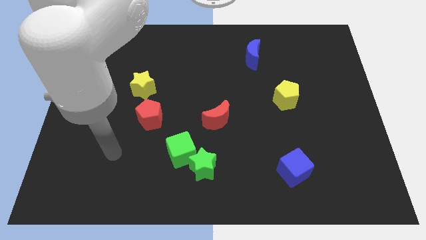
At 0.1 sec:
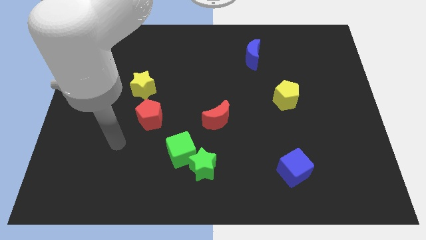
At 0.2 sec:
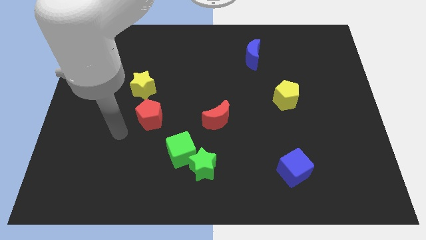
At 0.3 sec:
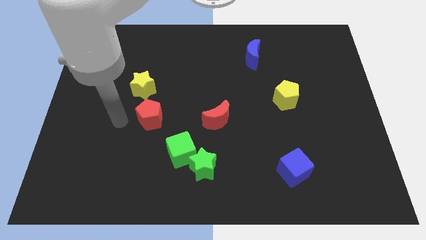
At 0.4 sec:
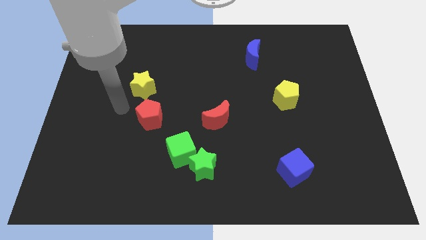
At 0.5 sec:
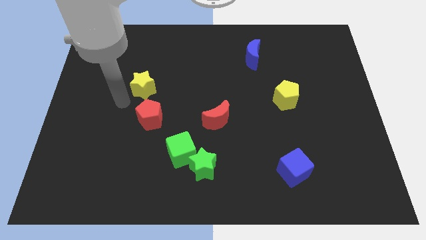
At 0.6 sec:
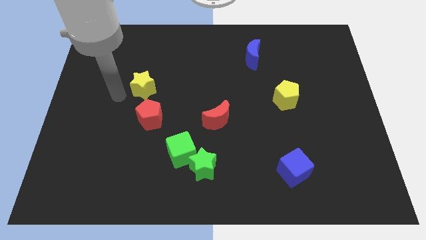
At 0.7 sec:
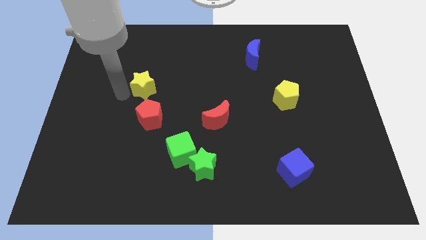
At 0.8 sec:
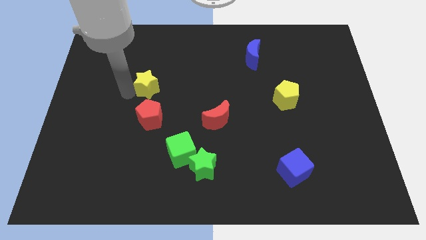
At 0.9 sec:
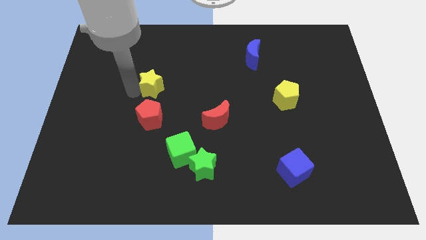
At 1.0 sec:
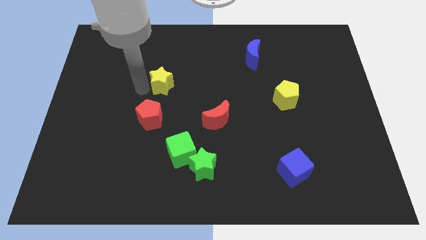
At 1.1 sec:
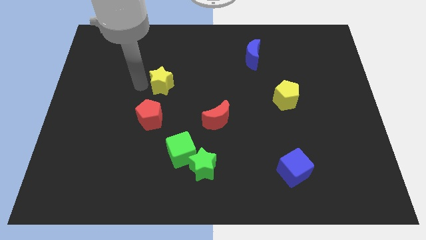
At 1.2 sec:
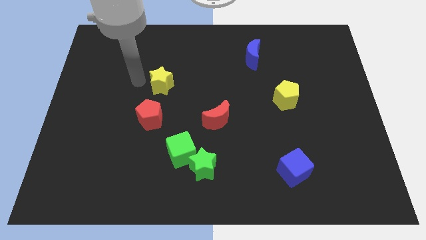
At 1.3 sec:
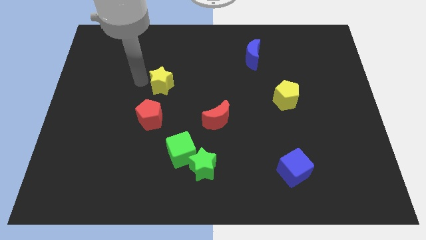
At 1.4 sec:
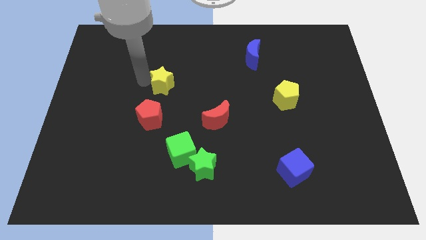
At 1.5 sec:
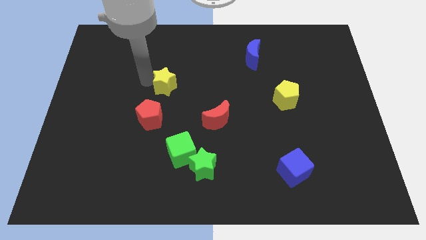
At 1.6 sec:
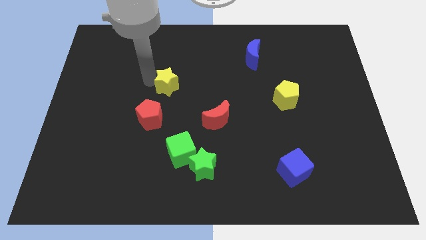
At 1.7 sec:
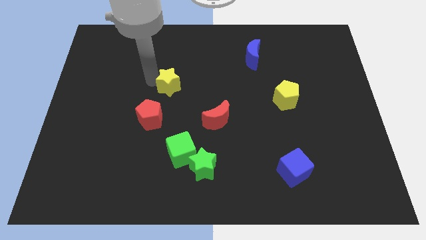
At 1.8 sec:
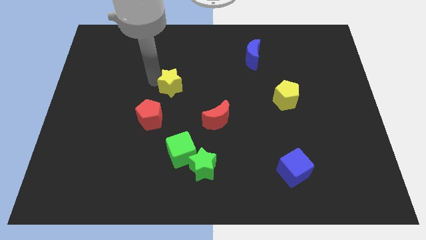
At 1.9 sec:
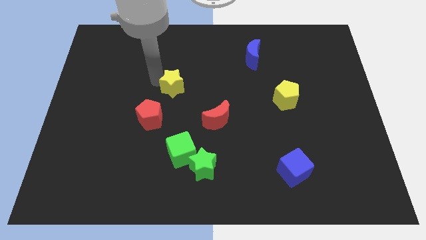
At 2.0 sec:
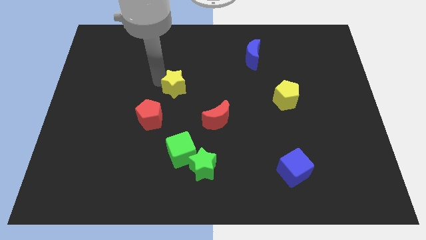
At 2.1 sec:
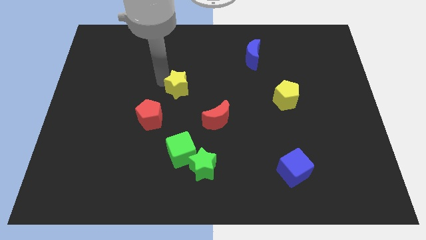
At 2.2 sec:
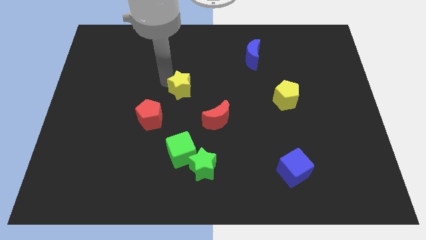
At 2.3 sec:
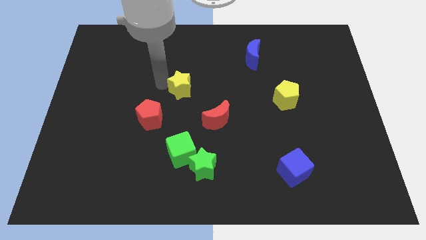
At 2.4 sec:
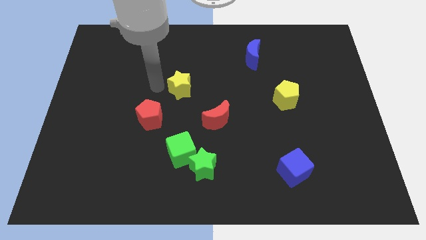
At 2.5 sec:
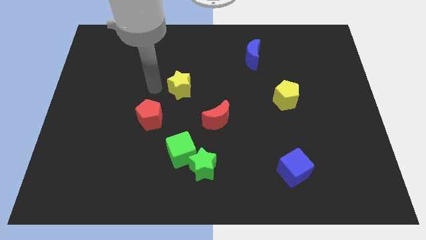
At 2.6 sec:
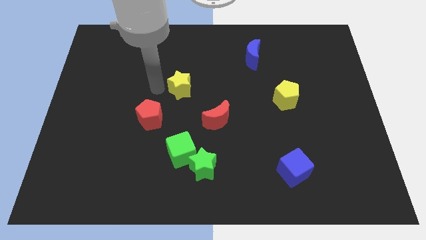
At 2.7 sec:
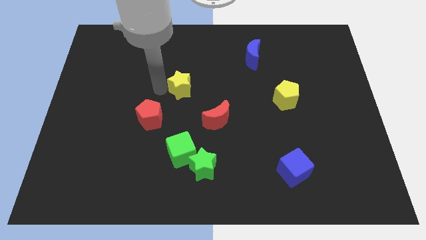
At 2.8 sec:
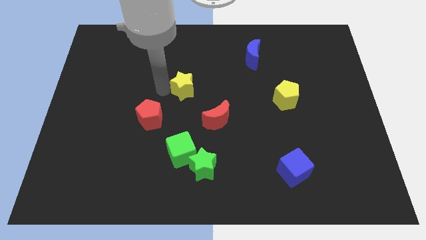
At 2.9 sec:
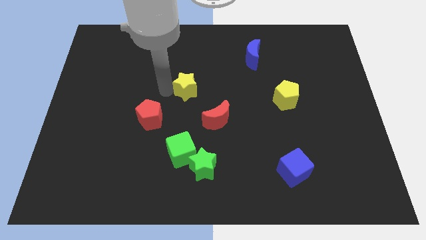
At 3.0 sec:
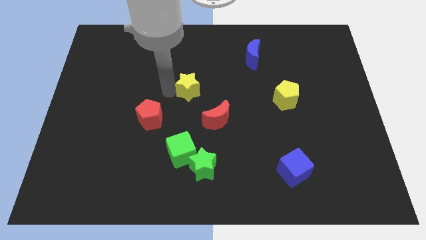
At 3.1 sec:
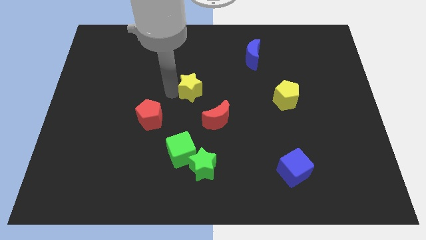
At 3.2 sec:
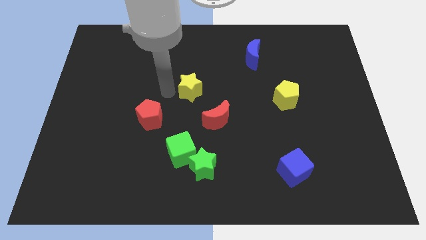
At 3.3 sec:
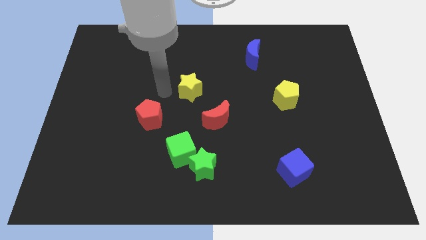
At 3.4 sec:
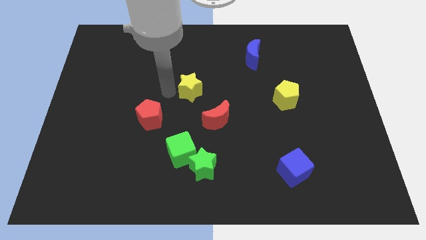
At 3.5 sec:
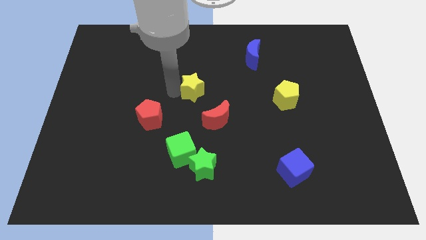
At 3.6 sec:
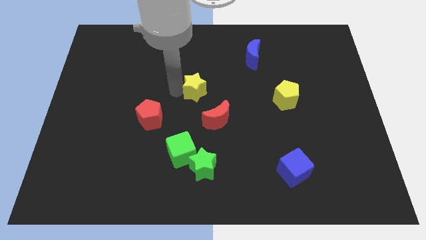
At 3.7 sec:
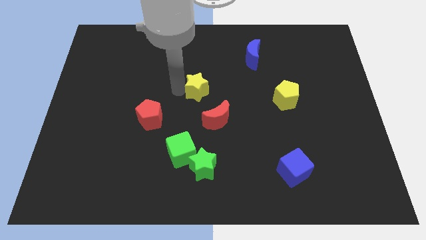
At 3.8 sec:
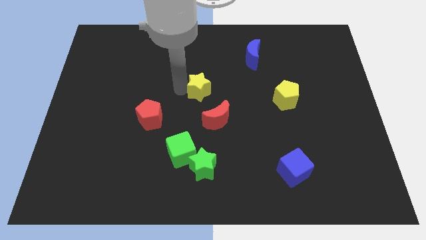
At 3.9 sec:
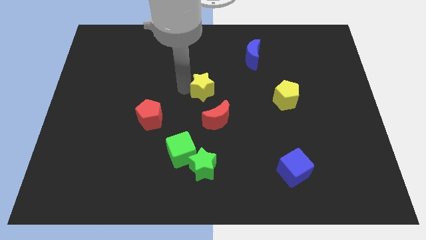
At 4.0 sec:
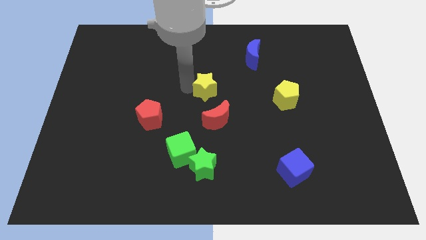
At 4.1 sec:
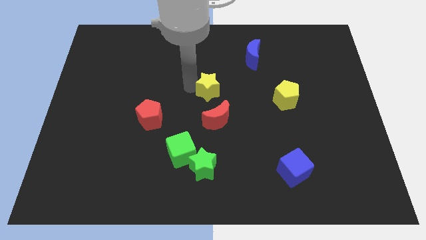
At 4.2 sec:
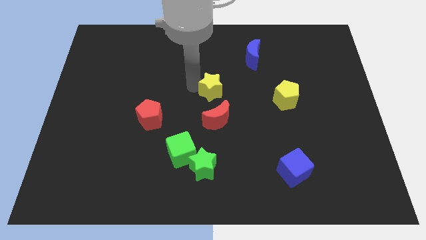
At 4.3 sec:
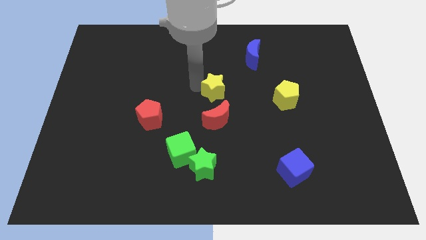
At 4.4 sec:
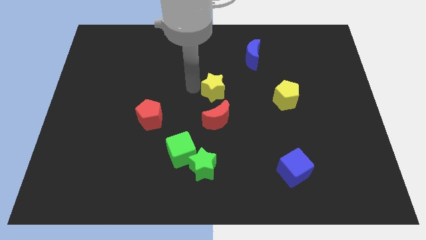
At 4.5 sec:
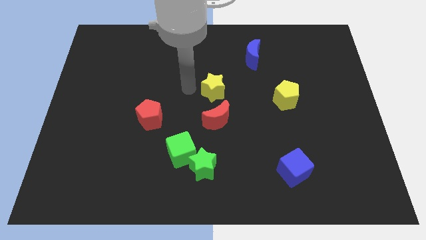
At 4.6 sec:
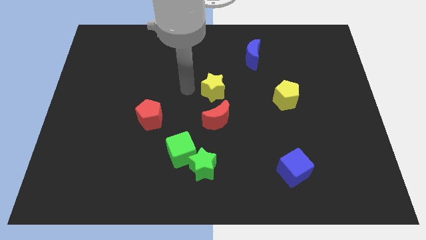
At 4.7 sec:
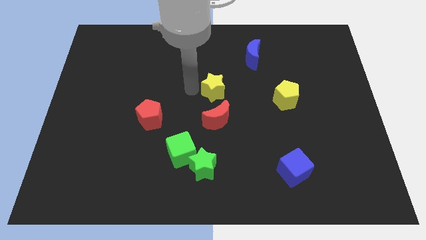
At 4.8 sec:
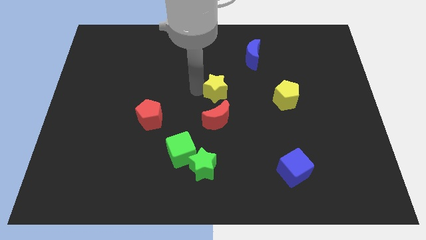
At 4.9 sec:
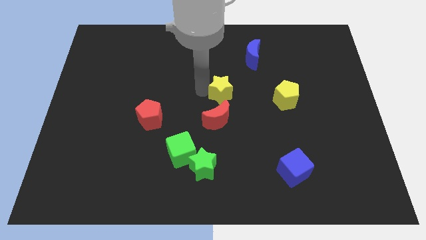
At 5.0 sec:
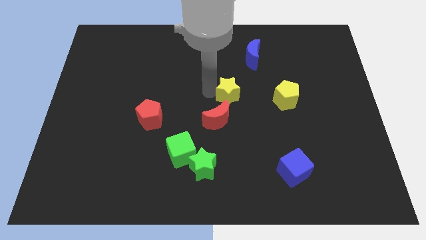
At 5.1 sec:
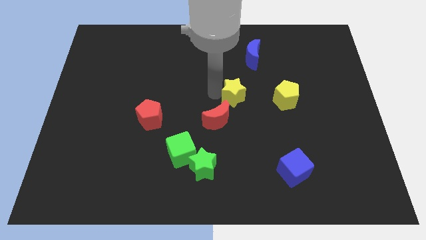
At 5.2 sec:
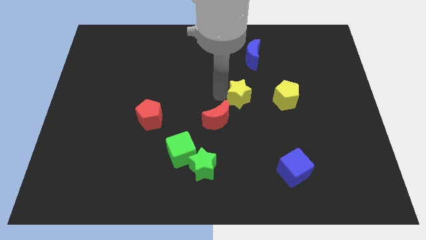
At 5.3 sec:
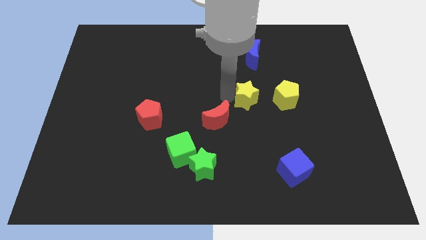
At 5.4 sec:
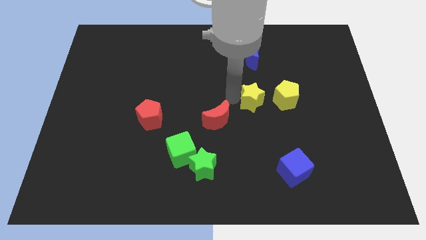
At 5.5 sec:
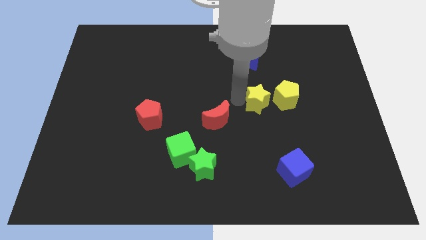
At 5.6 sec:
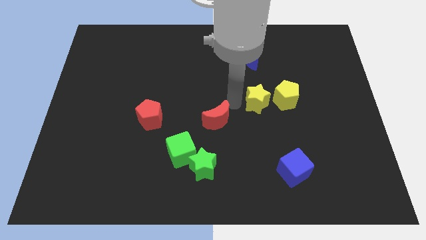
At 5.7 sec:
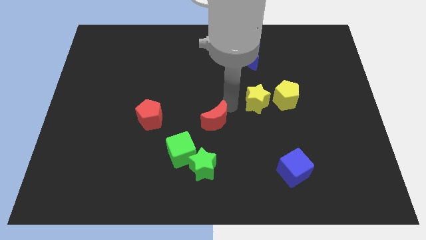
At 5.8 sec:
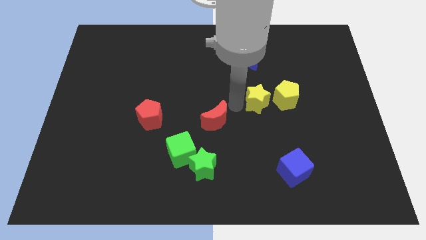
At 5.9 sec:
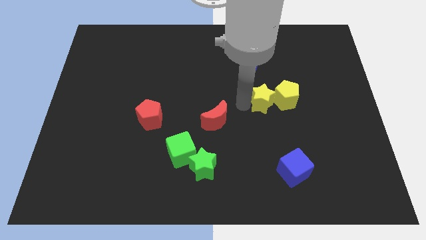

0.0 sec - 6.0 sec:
push the yellow star close to the yellow pentagon
